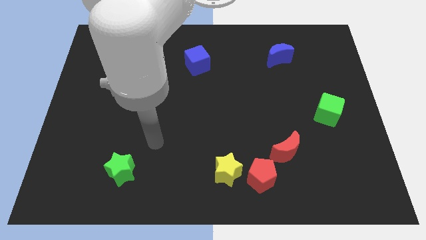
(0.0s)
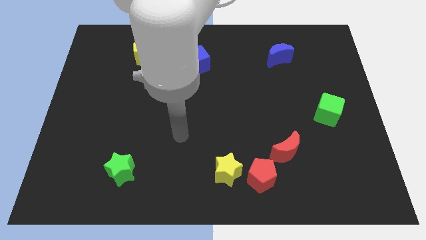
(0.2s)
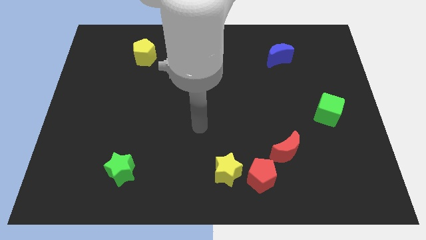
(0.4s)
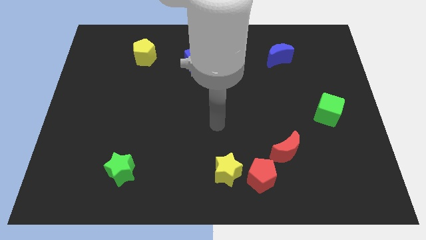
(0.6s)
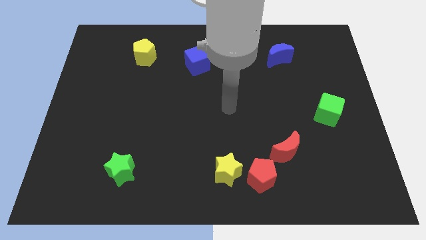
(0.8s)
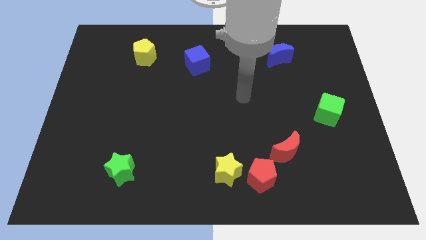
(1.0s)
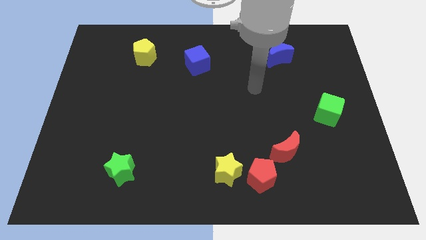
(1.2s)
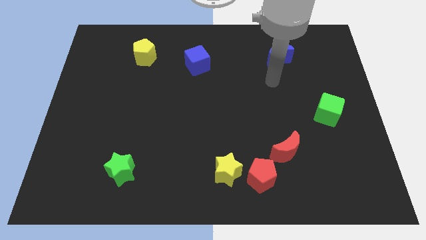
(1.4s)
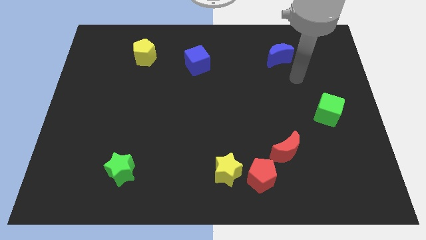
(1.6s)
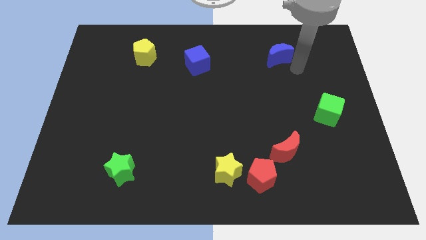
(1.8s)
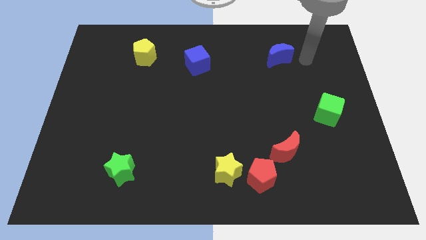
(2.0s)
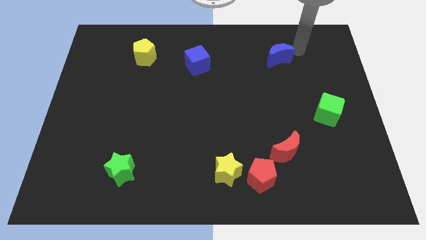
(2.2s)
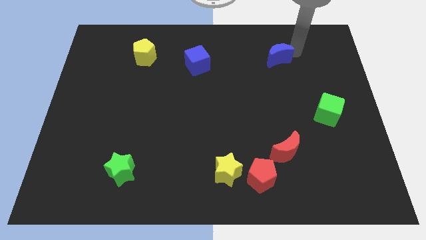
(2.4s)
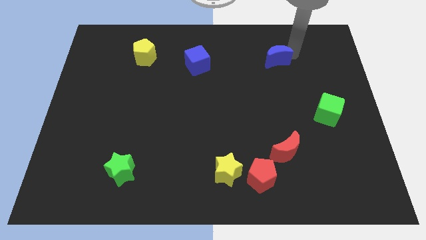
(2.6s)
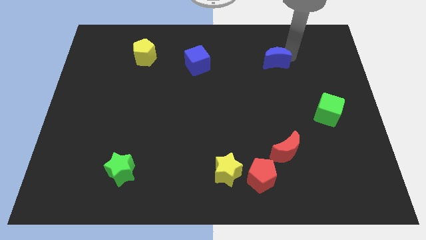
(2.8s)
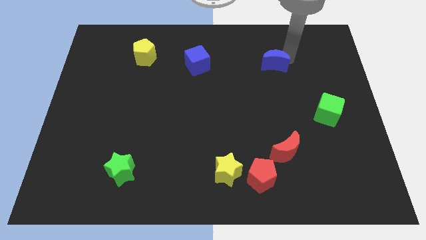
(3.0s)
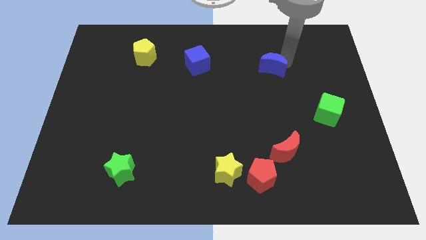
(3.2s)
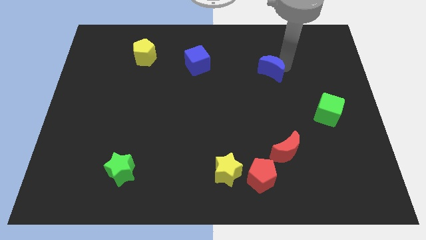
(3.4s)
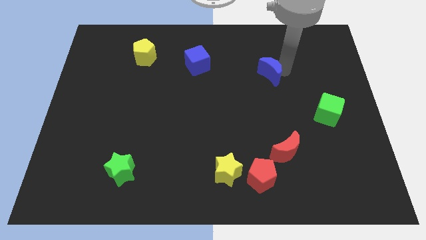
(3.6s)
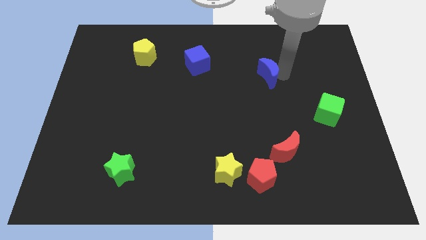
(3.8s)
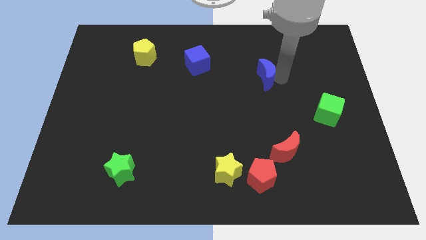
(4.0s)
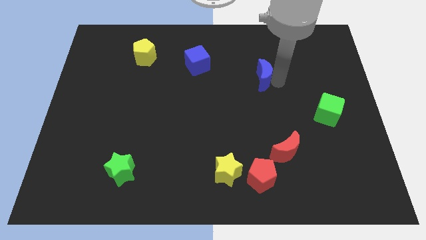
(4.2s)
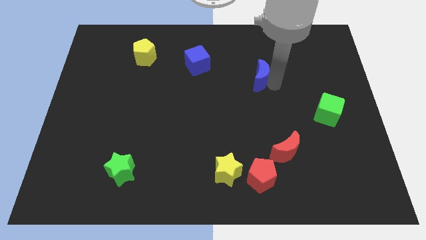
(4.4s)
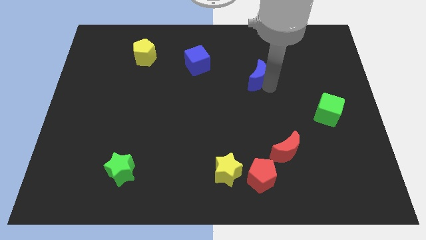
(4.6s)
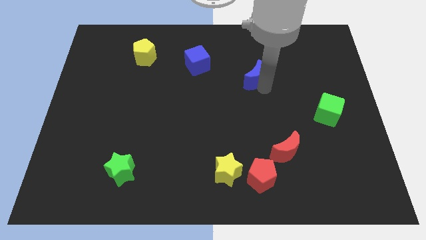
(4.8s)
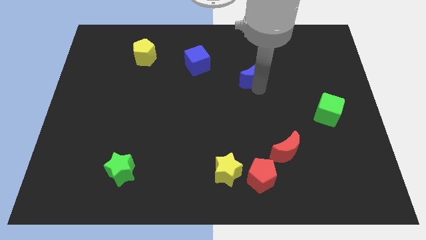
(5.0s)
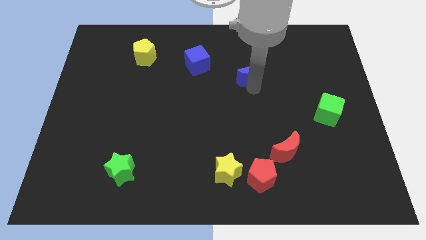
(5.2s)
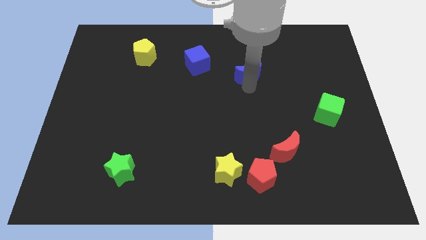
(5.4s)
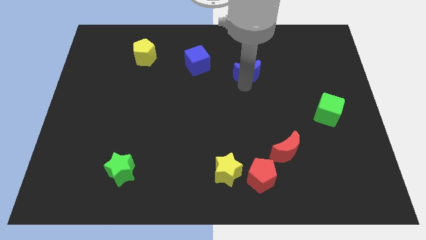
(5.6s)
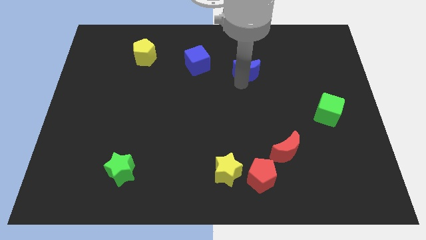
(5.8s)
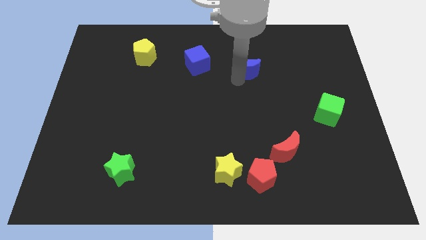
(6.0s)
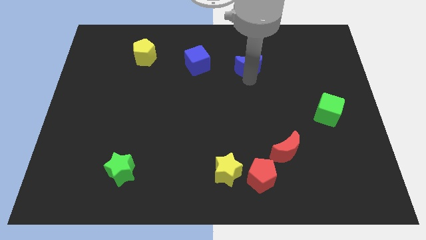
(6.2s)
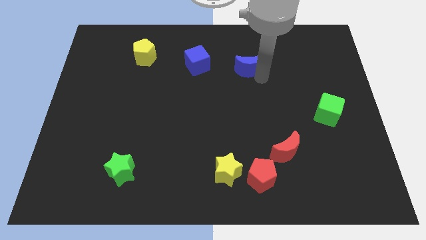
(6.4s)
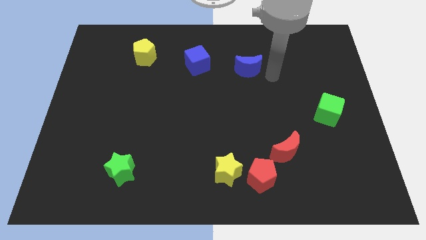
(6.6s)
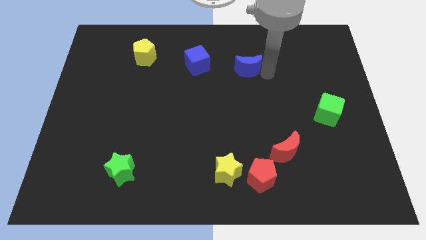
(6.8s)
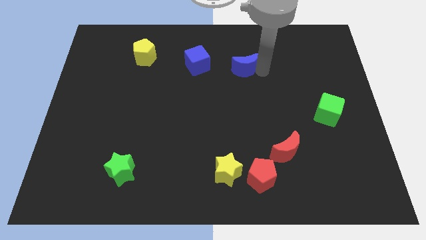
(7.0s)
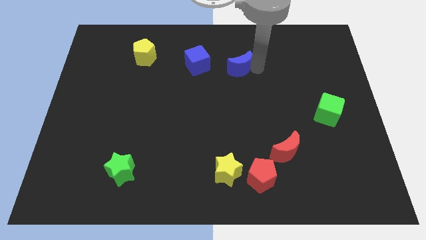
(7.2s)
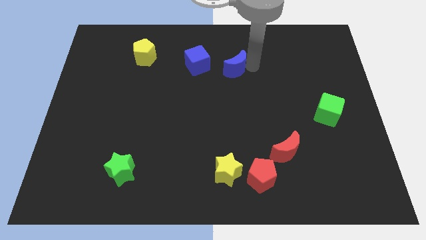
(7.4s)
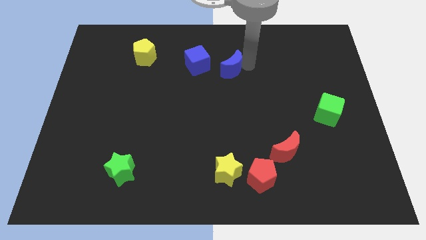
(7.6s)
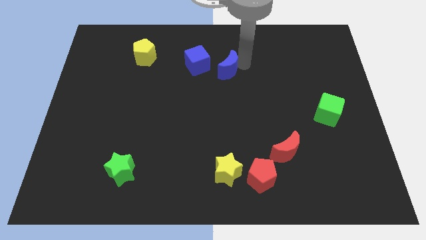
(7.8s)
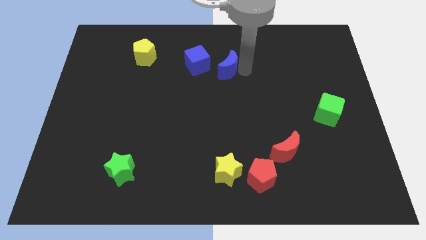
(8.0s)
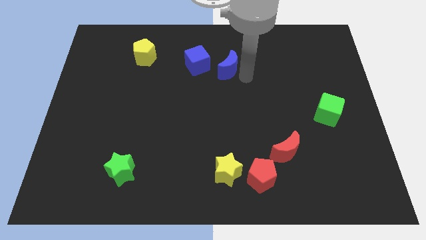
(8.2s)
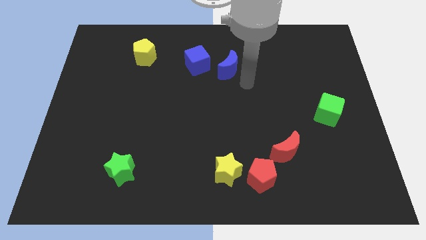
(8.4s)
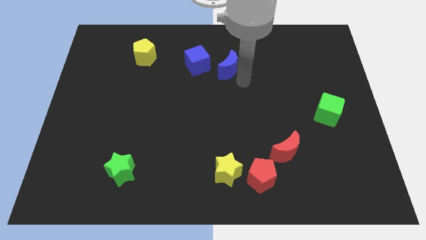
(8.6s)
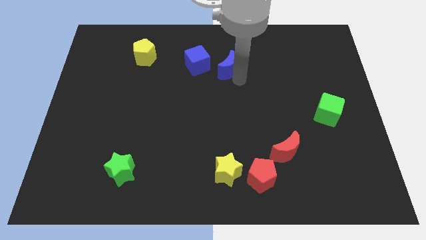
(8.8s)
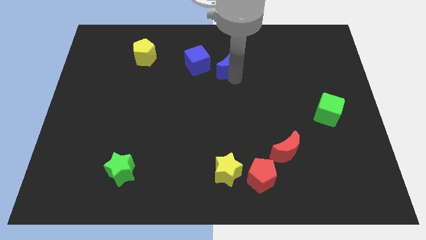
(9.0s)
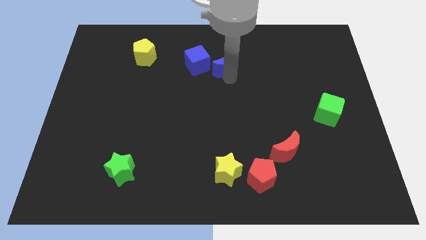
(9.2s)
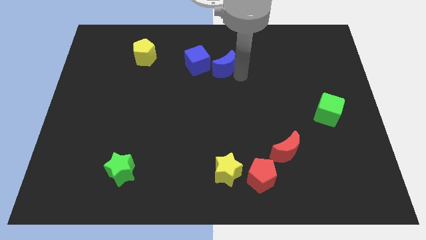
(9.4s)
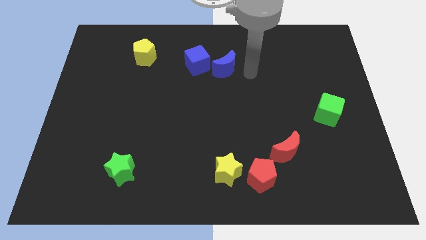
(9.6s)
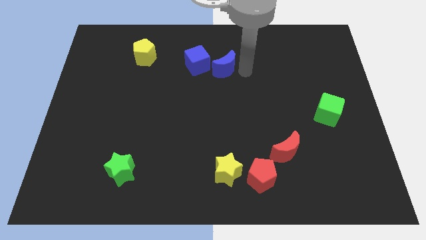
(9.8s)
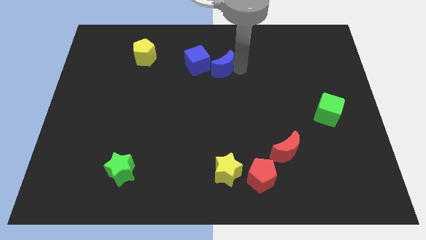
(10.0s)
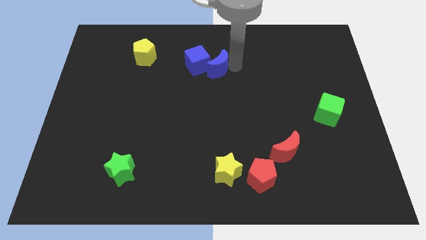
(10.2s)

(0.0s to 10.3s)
push the blue moon next to the blue cube

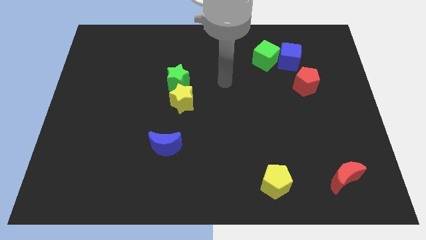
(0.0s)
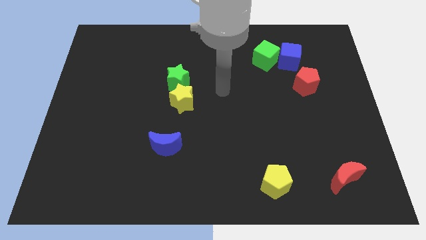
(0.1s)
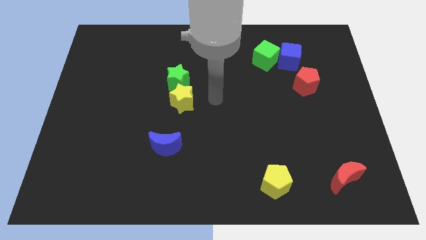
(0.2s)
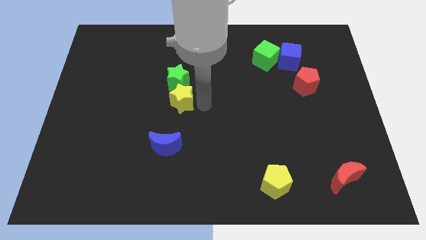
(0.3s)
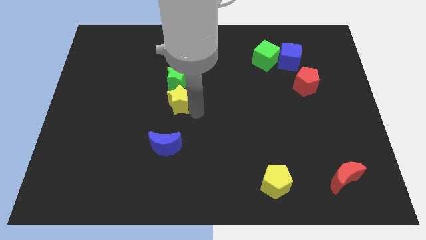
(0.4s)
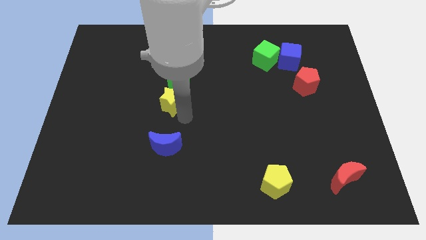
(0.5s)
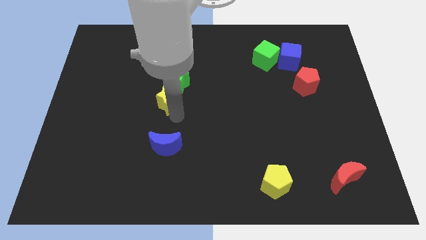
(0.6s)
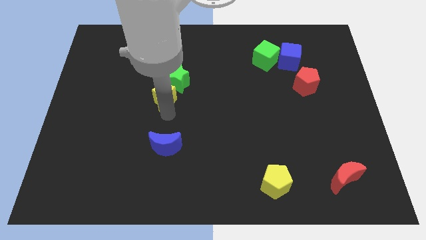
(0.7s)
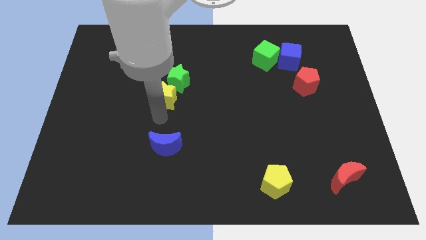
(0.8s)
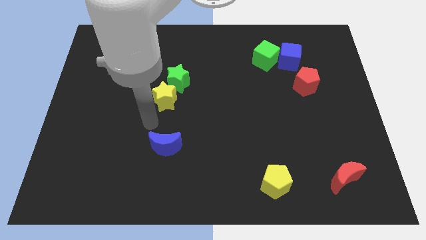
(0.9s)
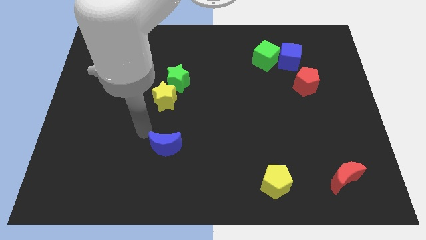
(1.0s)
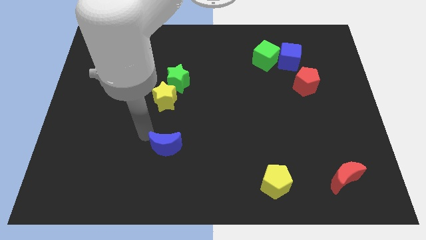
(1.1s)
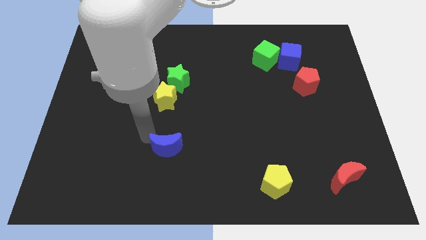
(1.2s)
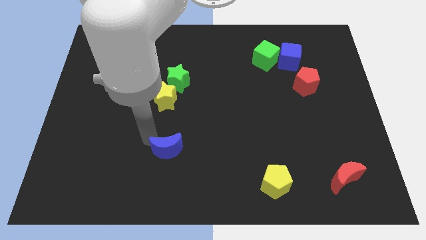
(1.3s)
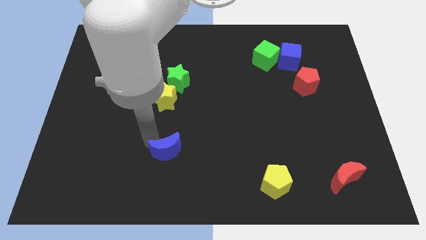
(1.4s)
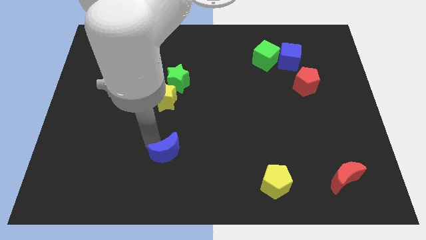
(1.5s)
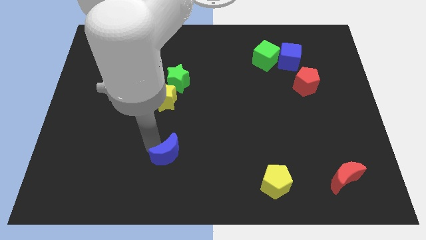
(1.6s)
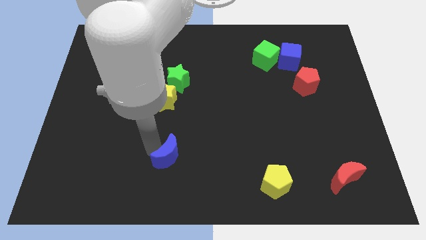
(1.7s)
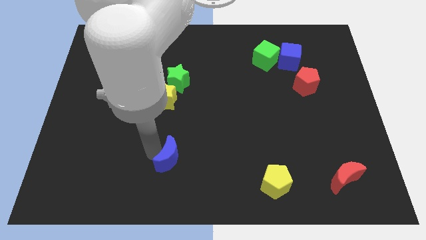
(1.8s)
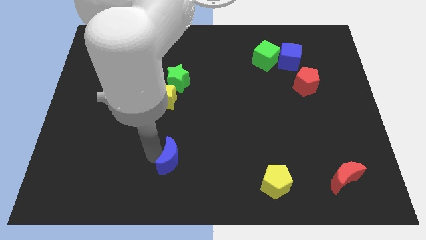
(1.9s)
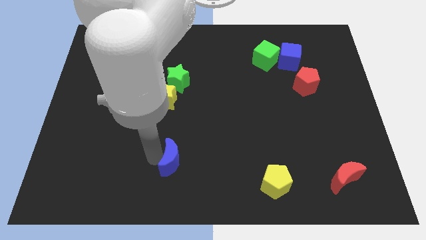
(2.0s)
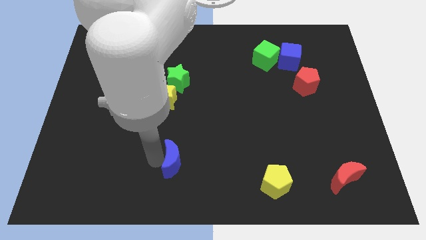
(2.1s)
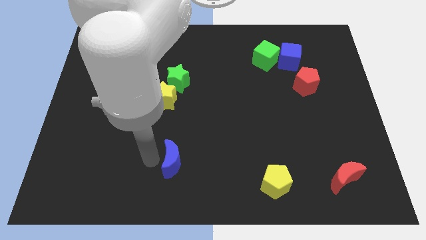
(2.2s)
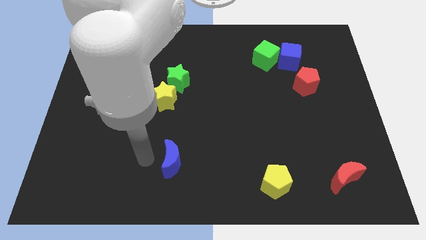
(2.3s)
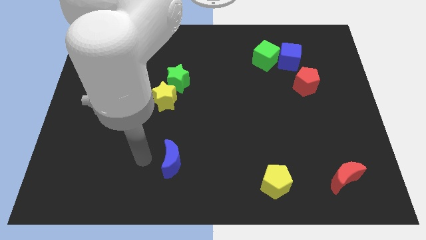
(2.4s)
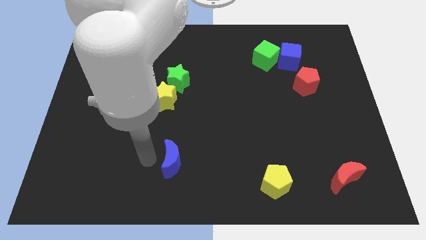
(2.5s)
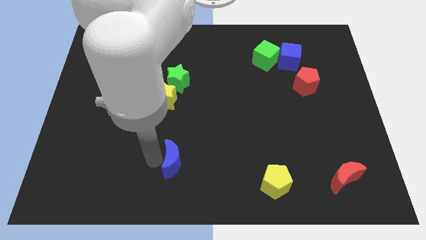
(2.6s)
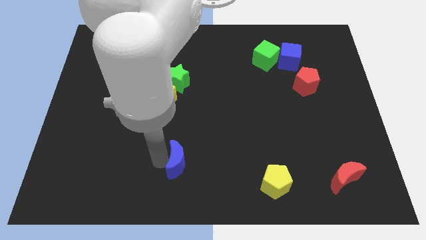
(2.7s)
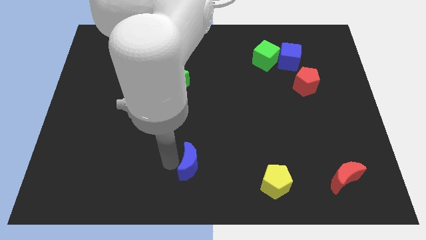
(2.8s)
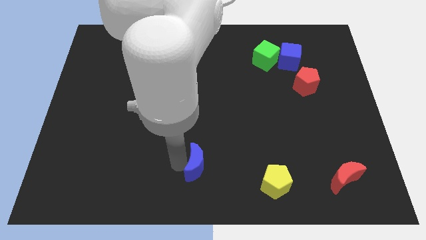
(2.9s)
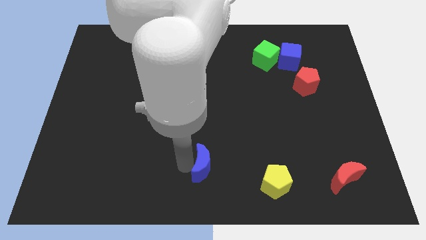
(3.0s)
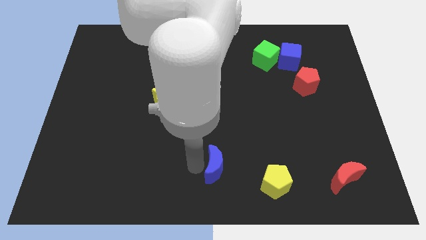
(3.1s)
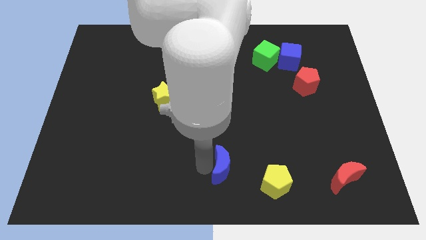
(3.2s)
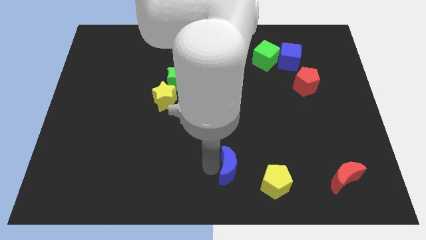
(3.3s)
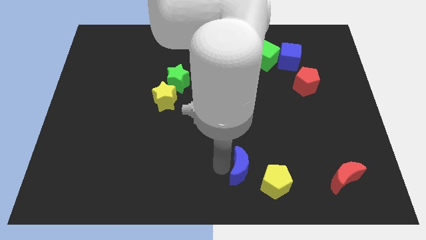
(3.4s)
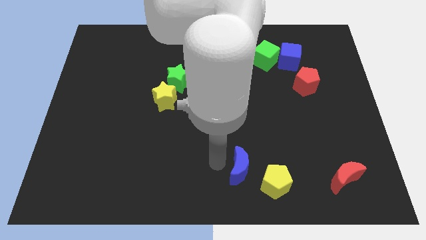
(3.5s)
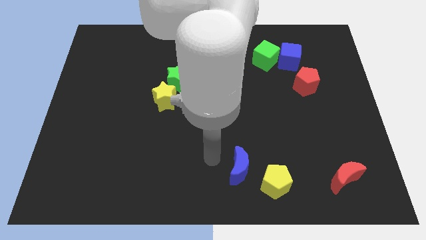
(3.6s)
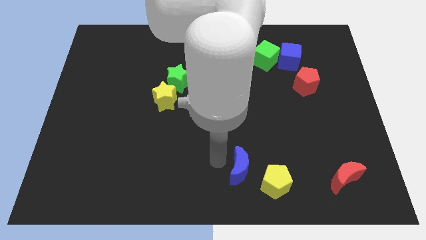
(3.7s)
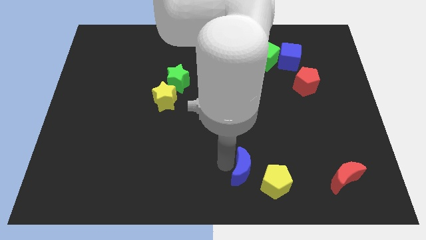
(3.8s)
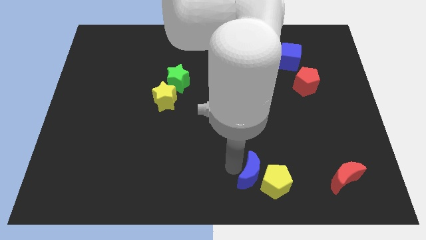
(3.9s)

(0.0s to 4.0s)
move the blue moon to the yellow pentagon
